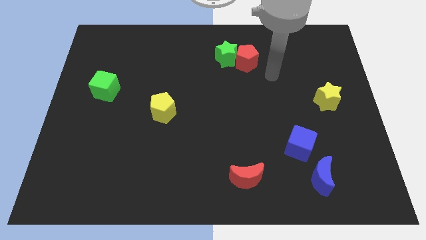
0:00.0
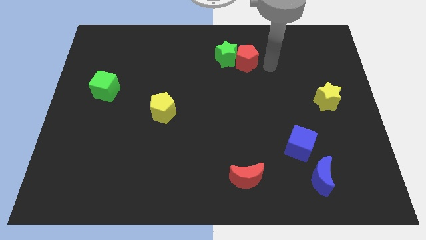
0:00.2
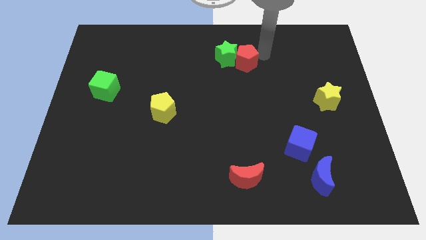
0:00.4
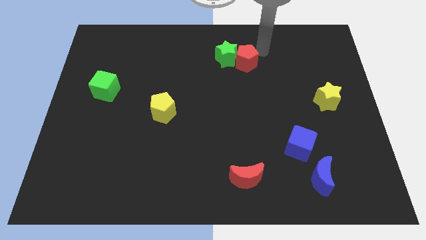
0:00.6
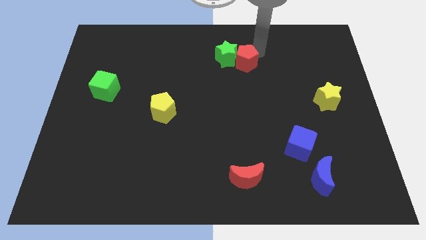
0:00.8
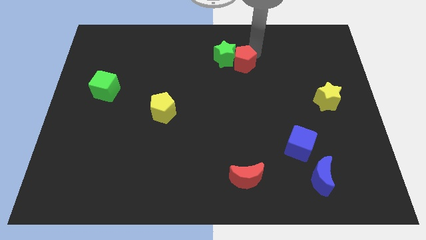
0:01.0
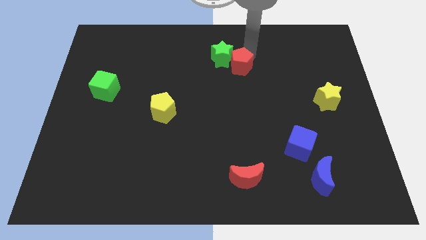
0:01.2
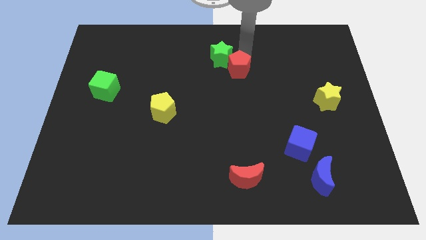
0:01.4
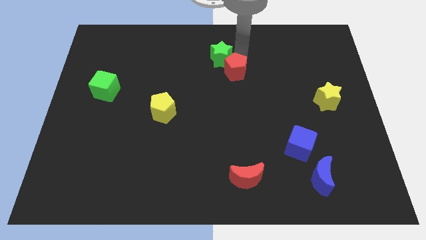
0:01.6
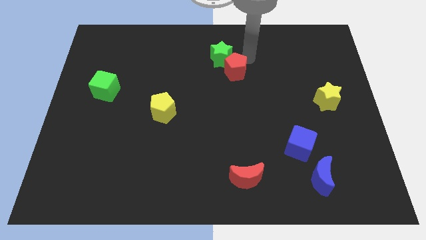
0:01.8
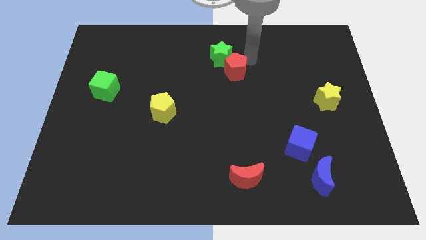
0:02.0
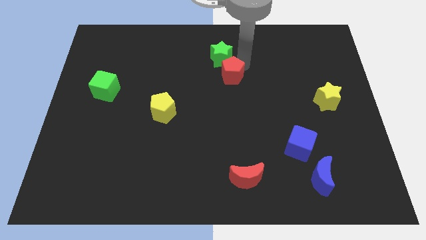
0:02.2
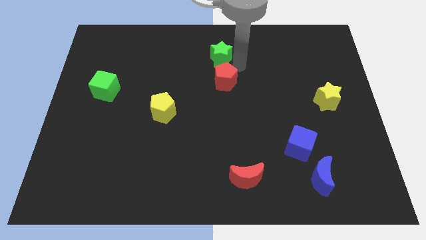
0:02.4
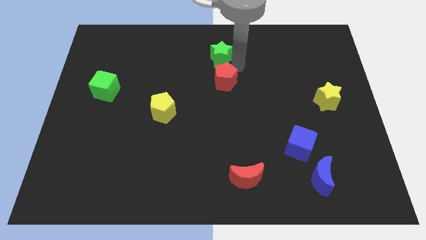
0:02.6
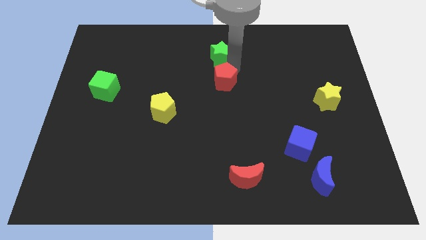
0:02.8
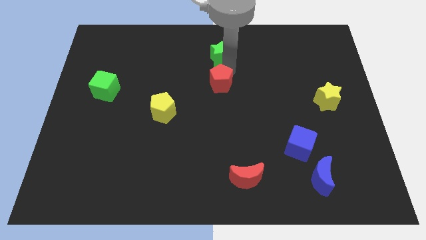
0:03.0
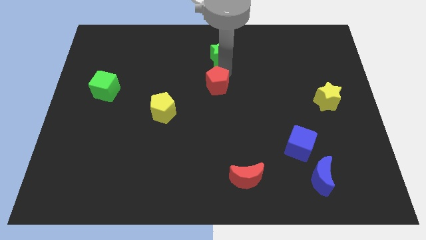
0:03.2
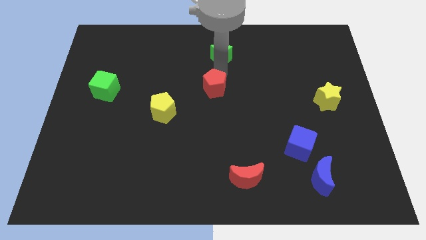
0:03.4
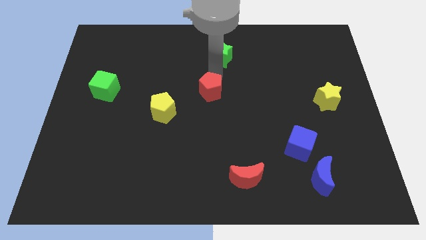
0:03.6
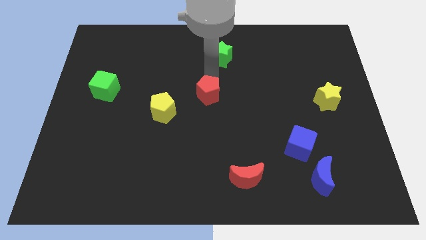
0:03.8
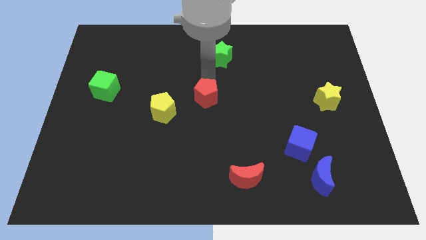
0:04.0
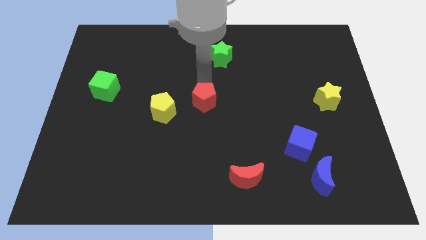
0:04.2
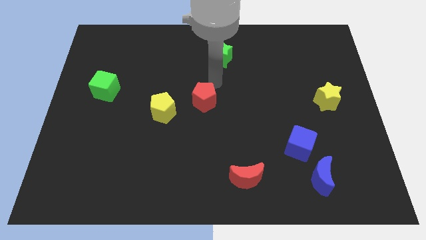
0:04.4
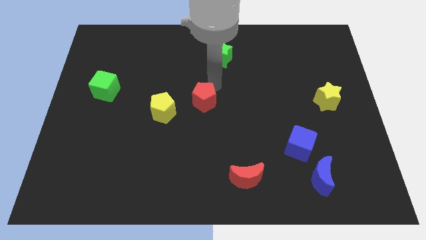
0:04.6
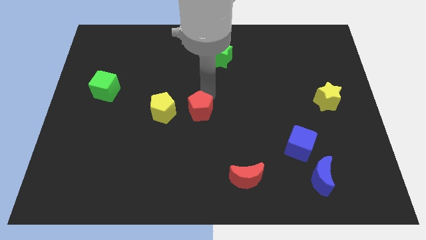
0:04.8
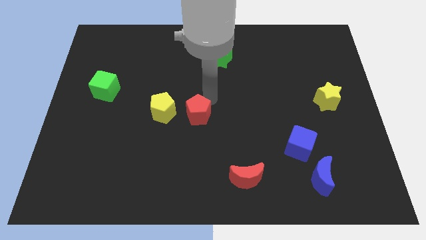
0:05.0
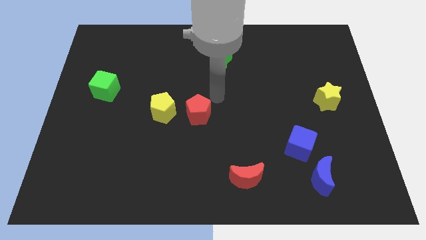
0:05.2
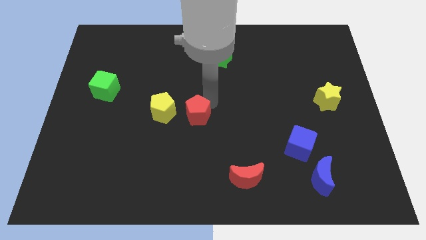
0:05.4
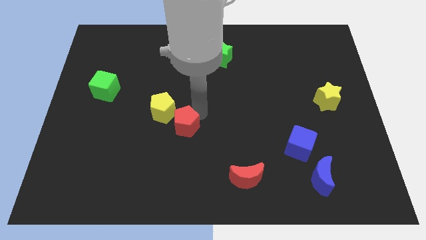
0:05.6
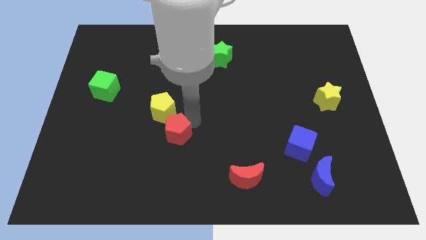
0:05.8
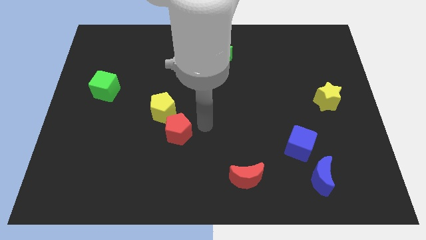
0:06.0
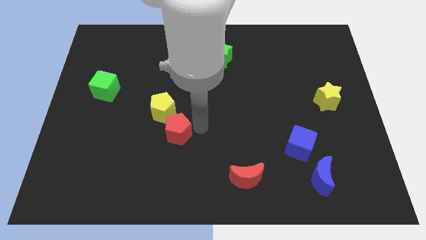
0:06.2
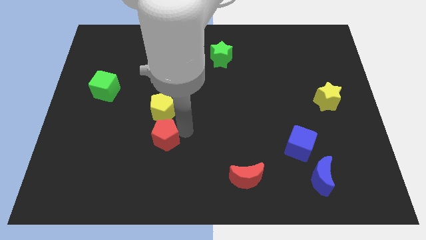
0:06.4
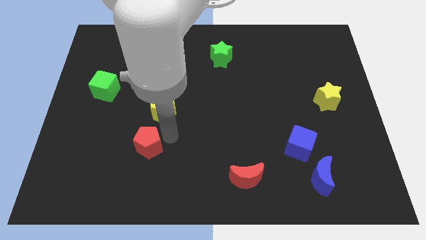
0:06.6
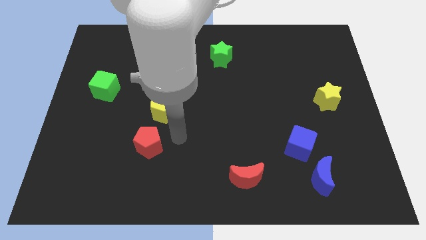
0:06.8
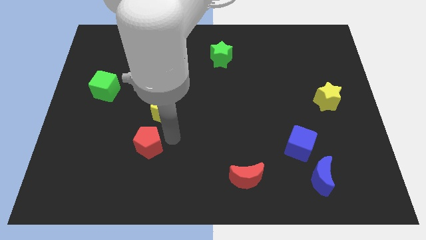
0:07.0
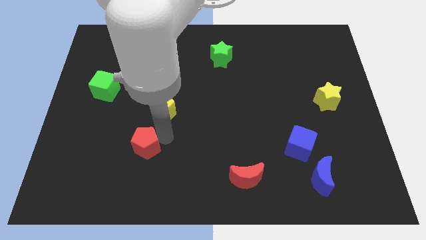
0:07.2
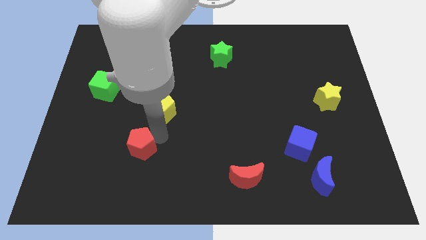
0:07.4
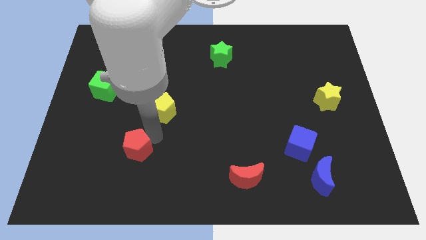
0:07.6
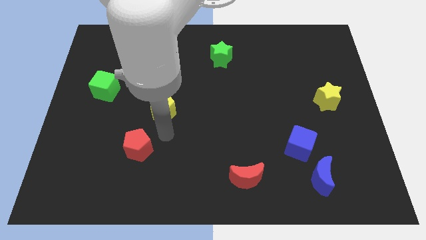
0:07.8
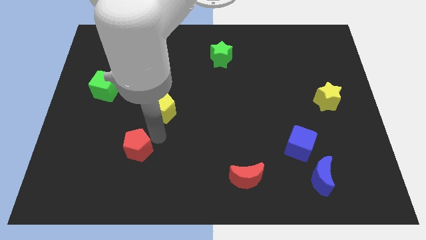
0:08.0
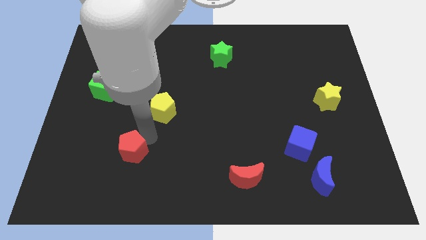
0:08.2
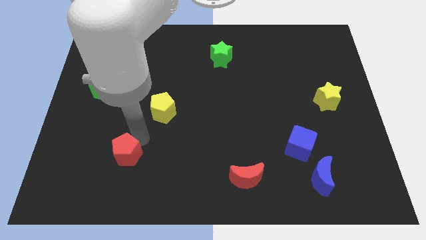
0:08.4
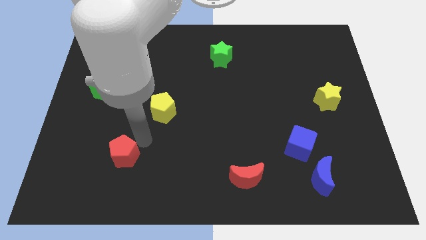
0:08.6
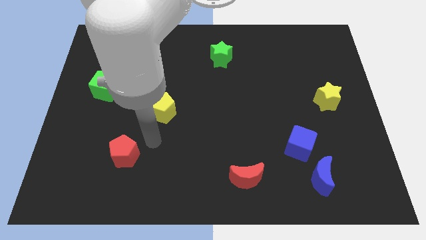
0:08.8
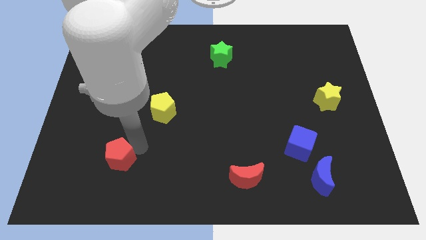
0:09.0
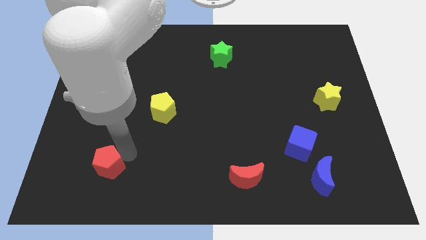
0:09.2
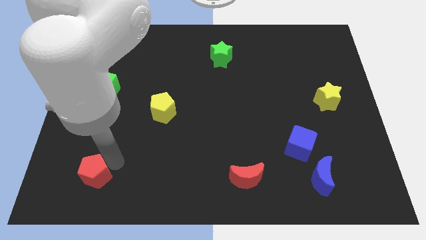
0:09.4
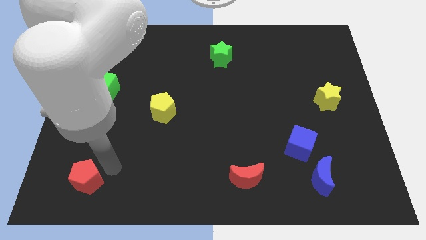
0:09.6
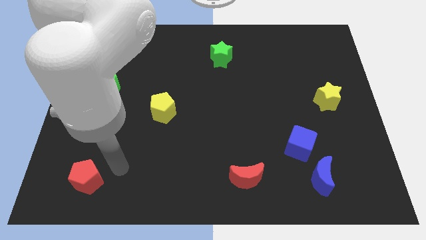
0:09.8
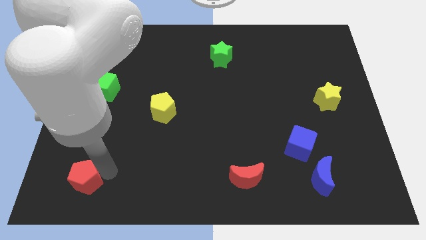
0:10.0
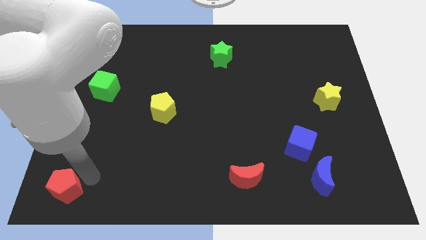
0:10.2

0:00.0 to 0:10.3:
put the red pentagon to the lower left corner

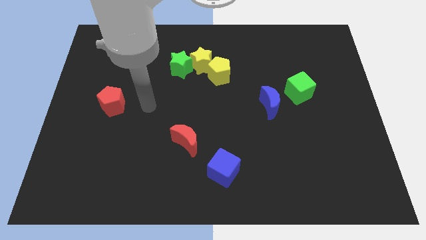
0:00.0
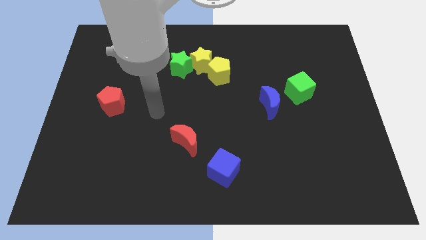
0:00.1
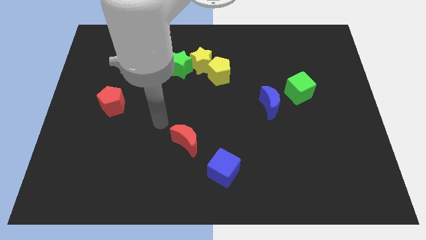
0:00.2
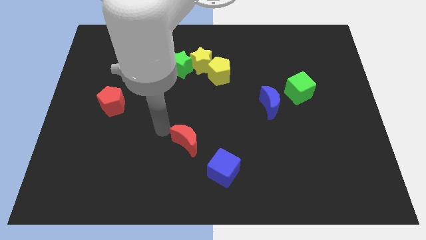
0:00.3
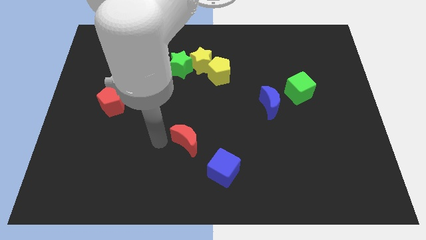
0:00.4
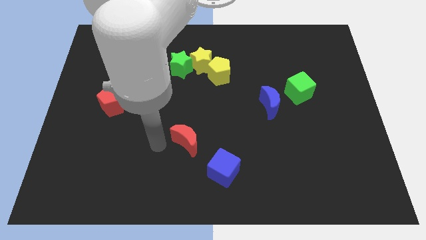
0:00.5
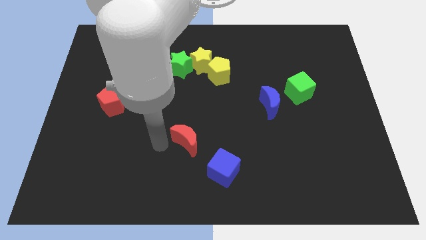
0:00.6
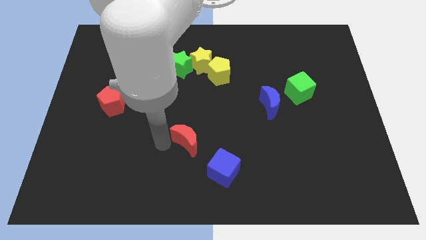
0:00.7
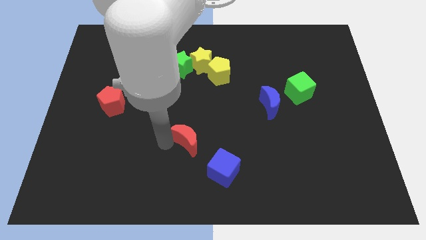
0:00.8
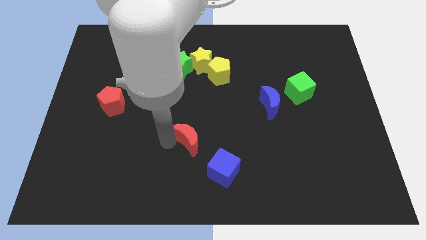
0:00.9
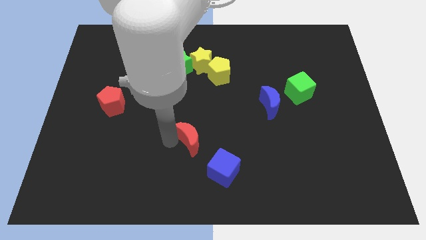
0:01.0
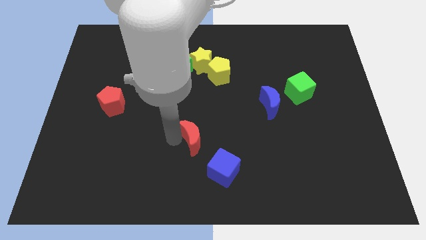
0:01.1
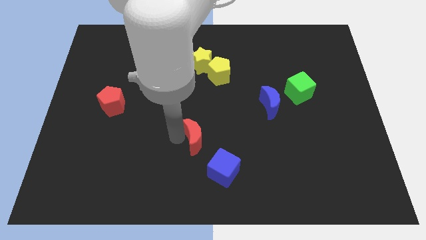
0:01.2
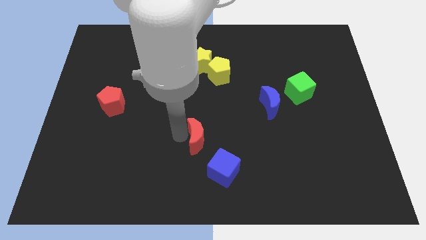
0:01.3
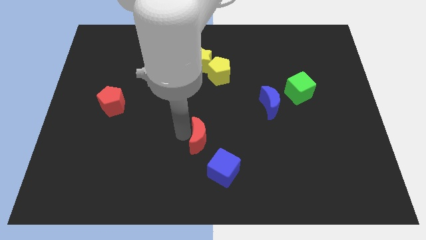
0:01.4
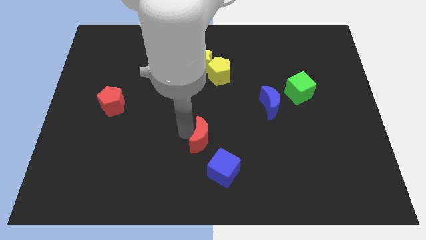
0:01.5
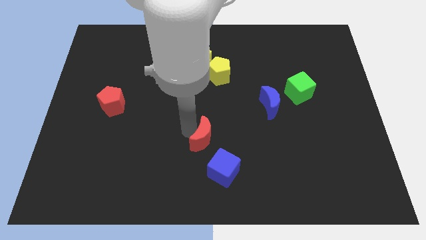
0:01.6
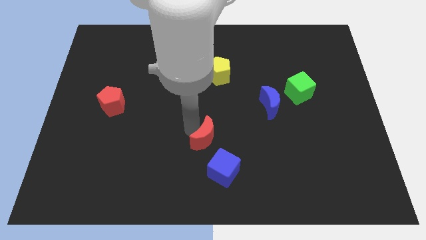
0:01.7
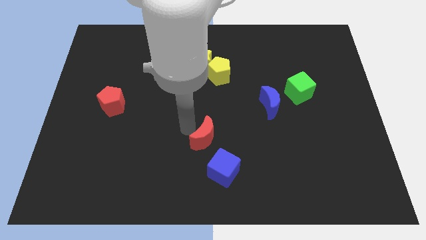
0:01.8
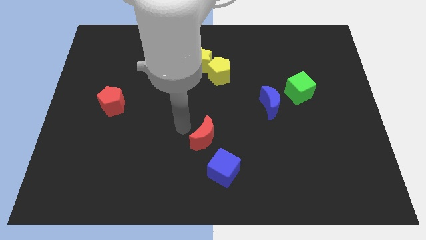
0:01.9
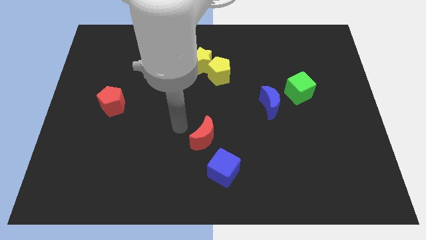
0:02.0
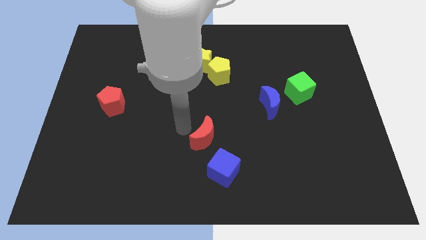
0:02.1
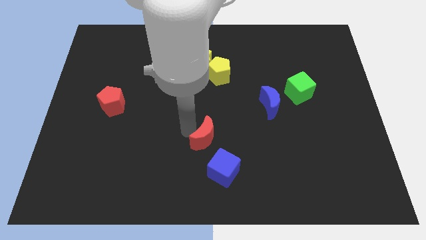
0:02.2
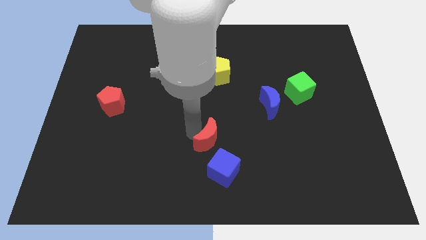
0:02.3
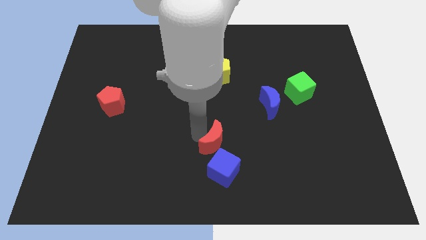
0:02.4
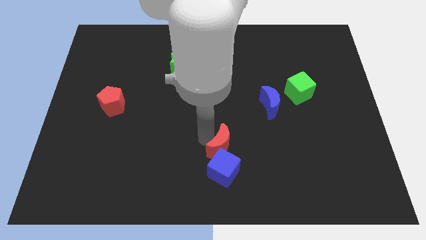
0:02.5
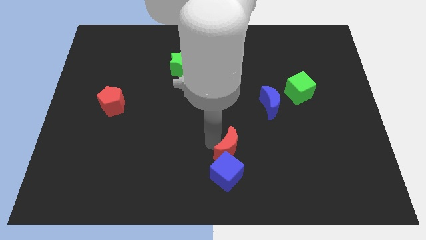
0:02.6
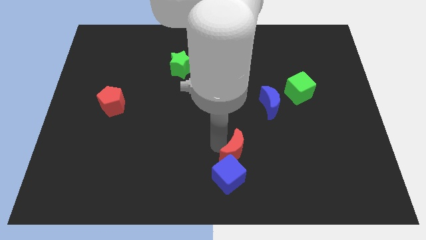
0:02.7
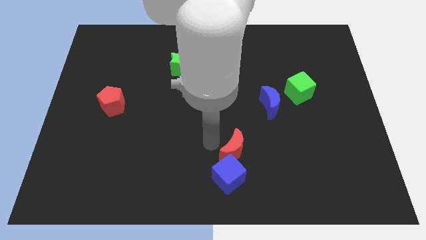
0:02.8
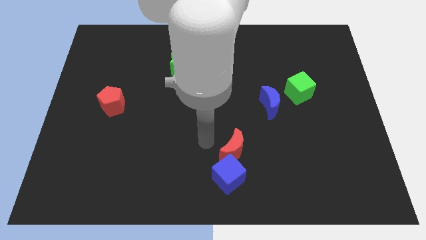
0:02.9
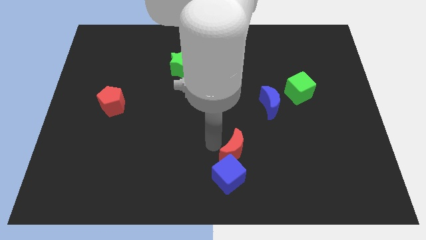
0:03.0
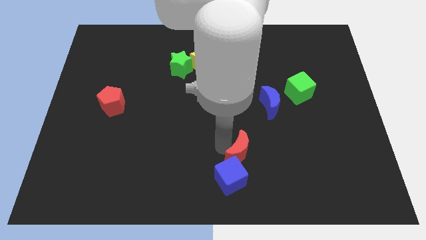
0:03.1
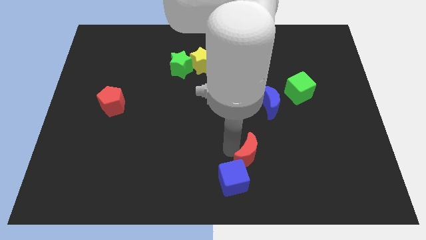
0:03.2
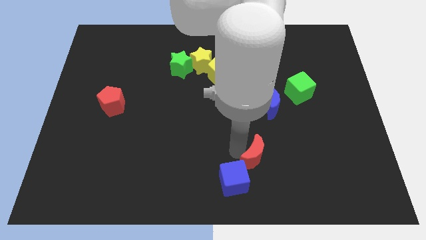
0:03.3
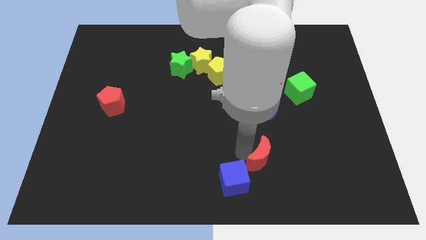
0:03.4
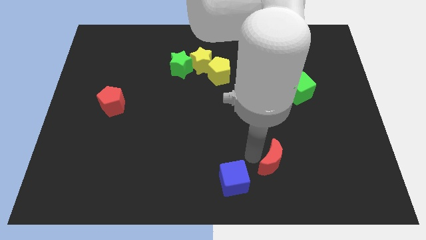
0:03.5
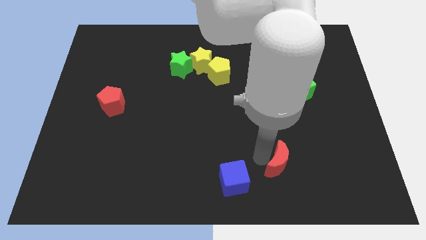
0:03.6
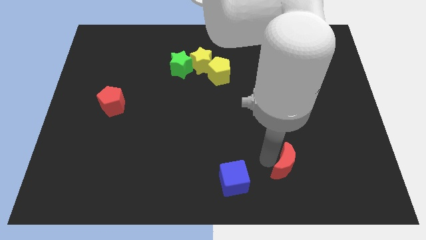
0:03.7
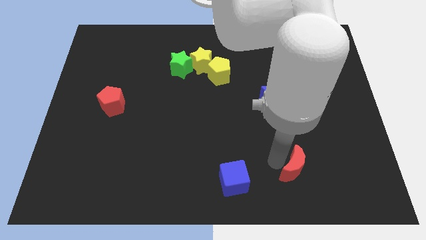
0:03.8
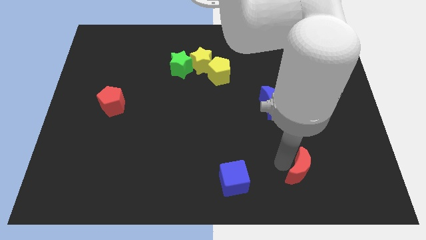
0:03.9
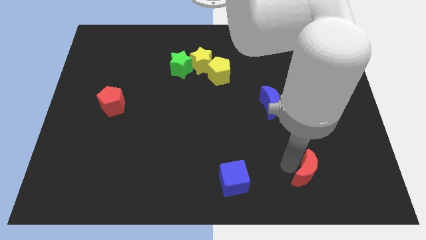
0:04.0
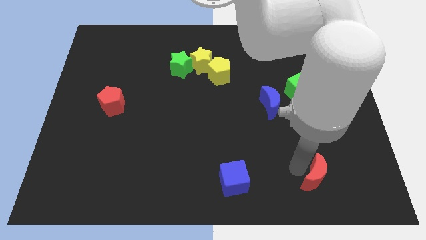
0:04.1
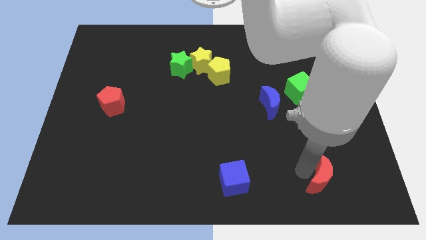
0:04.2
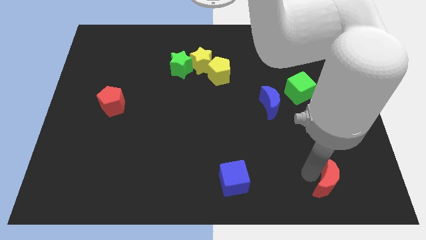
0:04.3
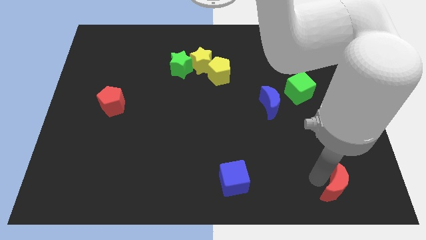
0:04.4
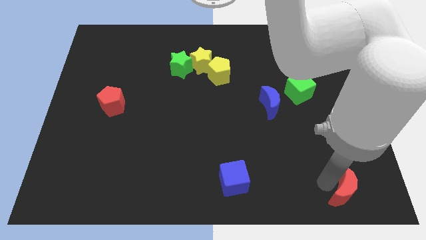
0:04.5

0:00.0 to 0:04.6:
move the red moon to the bottom right
